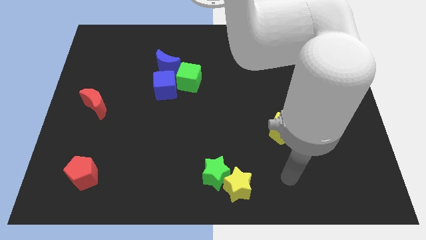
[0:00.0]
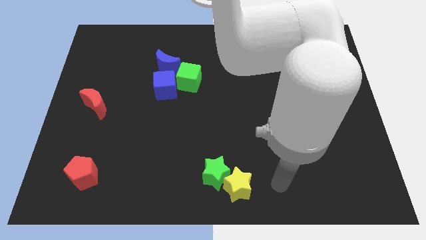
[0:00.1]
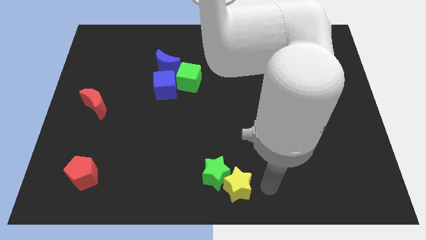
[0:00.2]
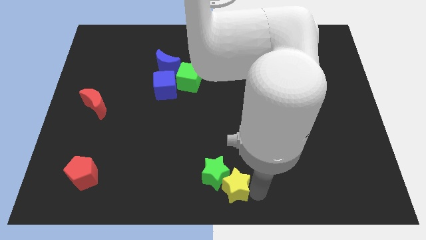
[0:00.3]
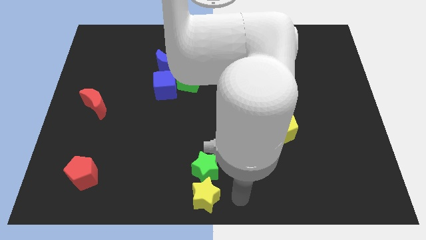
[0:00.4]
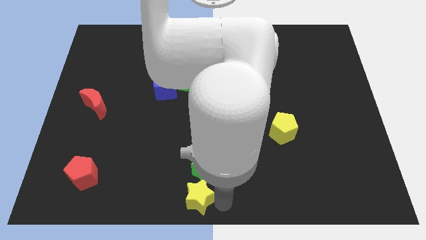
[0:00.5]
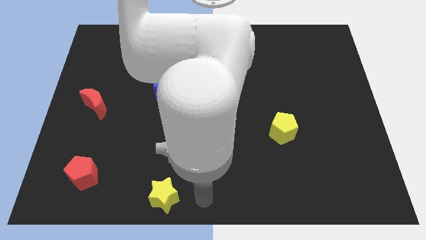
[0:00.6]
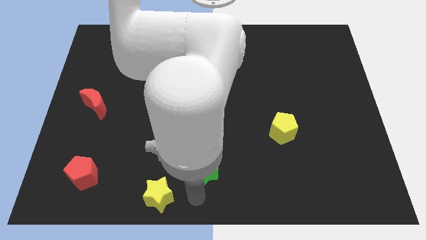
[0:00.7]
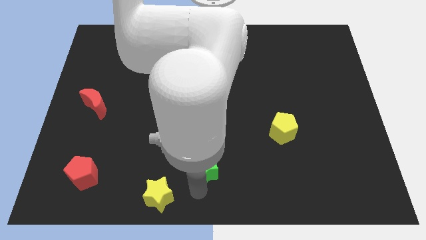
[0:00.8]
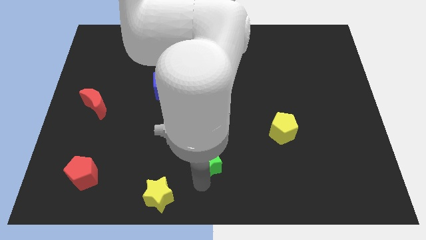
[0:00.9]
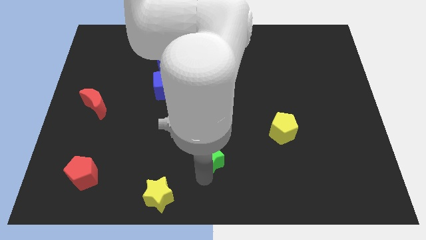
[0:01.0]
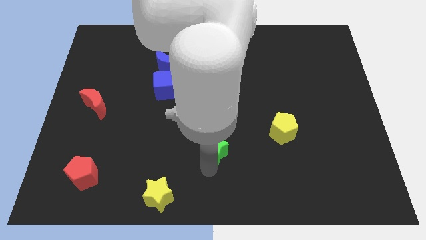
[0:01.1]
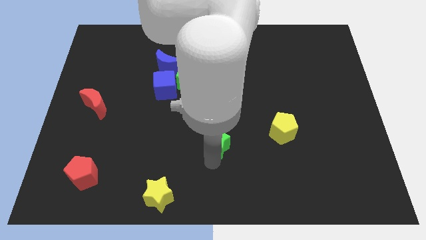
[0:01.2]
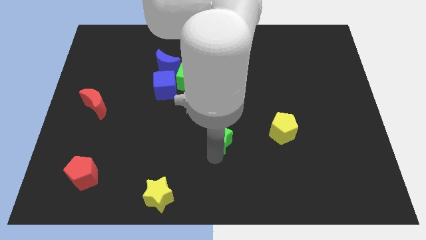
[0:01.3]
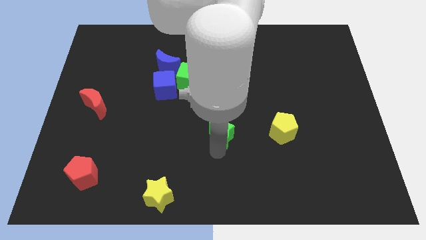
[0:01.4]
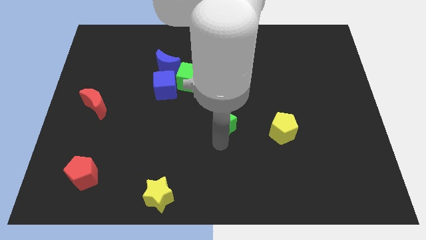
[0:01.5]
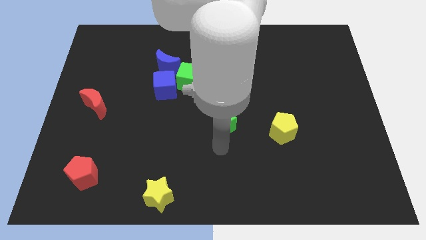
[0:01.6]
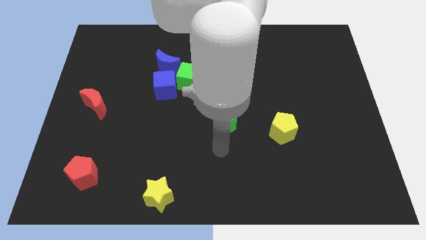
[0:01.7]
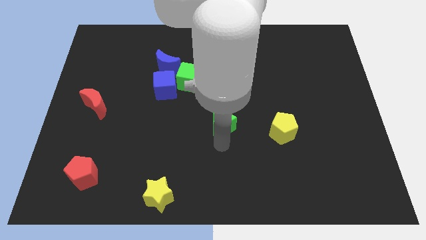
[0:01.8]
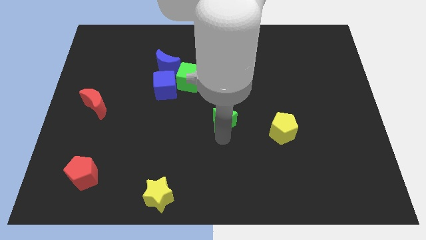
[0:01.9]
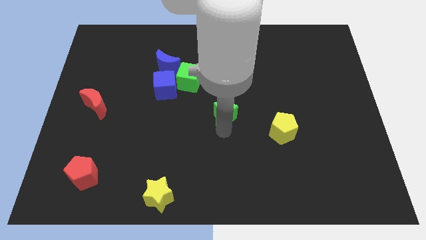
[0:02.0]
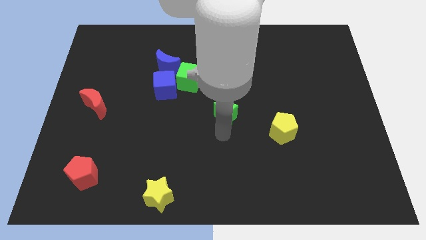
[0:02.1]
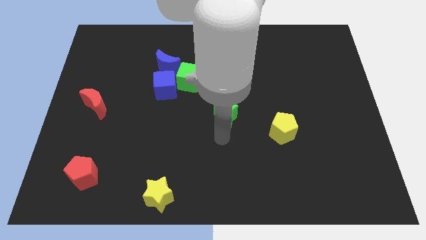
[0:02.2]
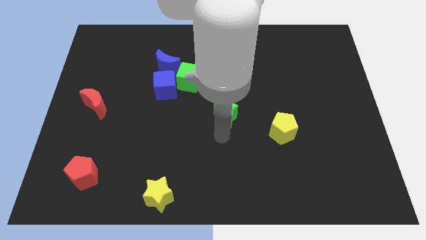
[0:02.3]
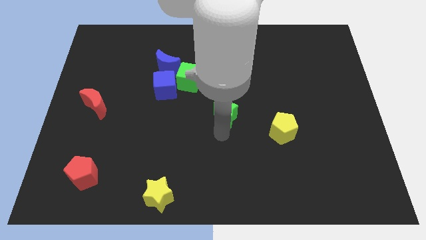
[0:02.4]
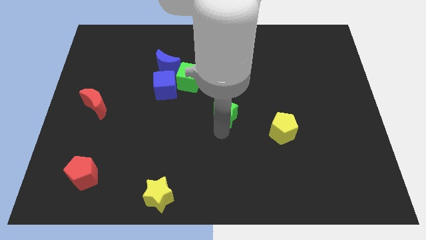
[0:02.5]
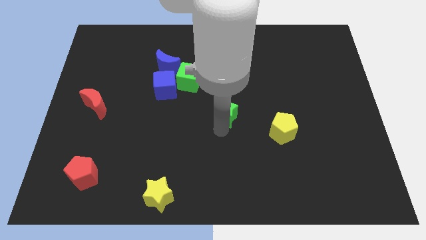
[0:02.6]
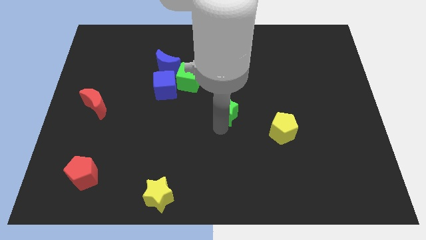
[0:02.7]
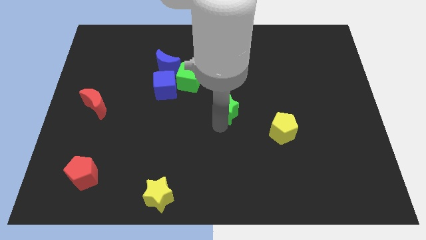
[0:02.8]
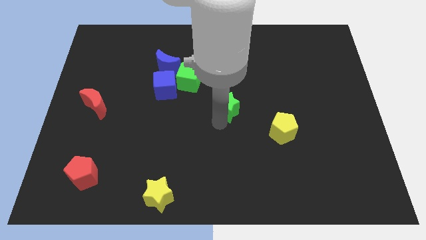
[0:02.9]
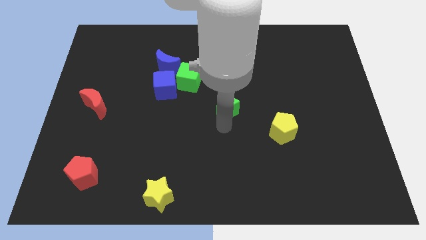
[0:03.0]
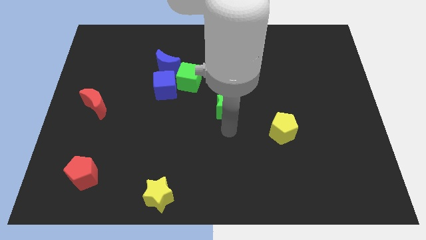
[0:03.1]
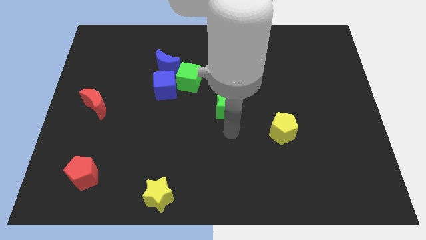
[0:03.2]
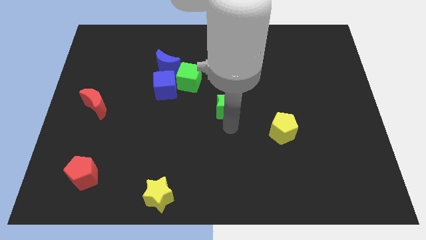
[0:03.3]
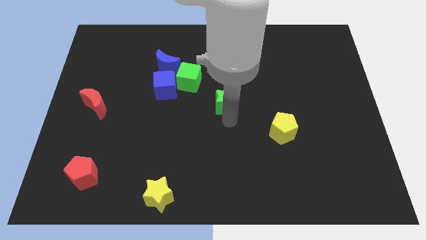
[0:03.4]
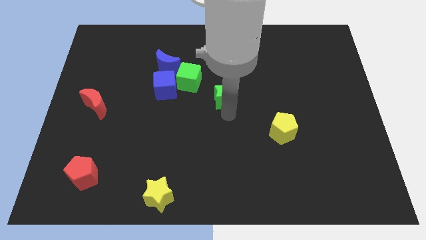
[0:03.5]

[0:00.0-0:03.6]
push the green star up

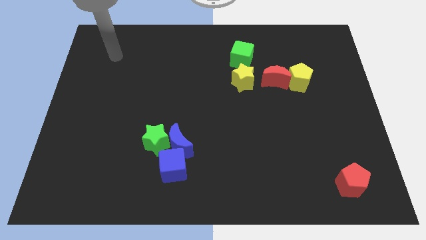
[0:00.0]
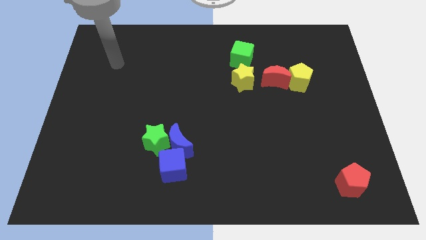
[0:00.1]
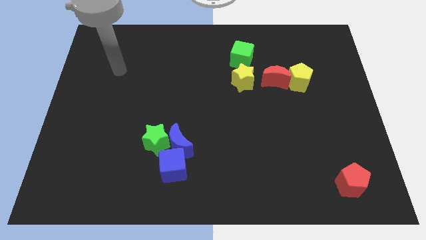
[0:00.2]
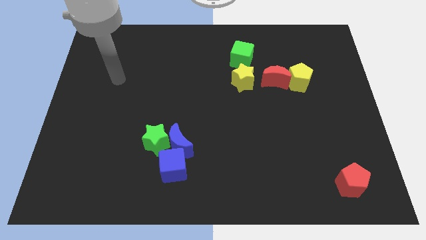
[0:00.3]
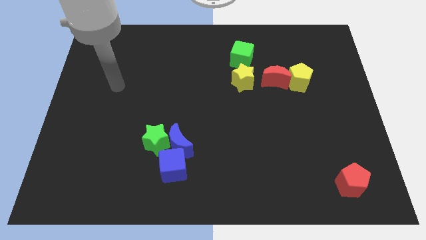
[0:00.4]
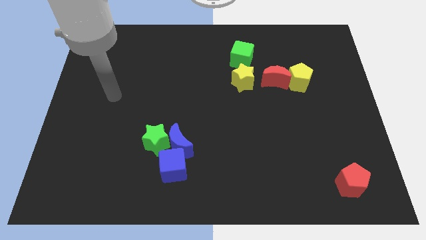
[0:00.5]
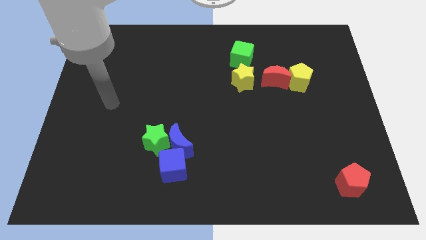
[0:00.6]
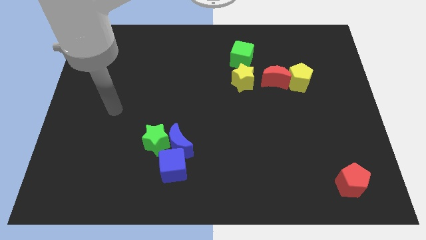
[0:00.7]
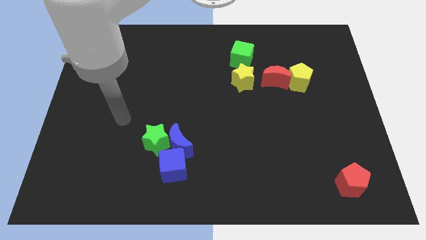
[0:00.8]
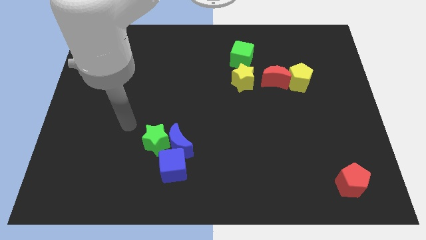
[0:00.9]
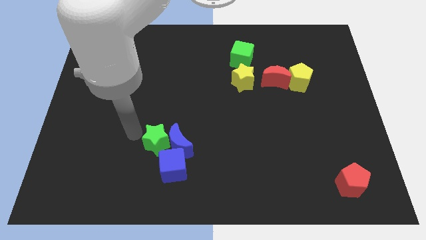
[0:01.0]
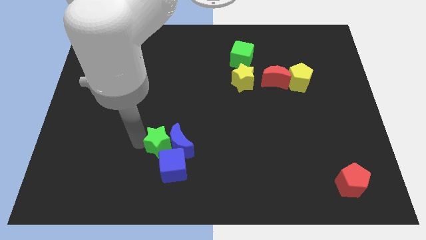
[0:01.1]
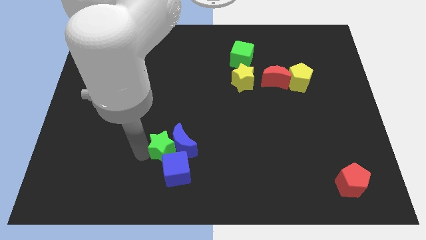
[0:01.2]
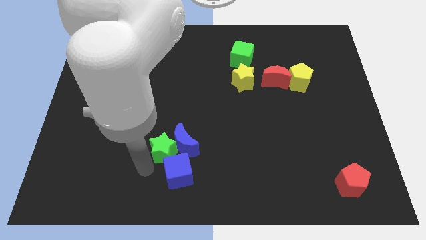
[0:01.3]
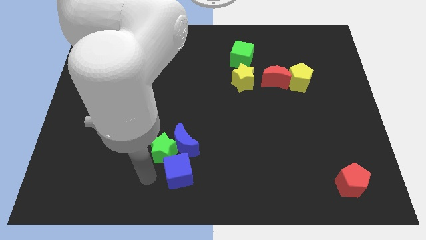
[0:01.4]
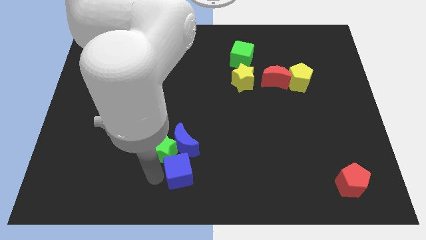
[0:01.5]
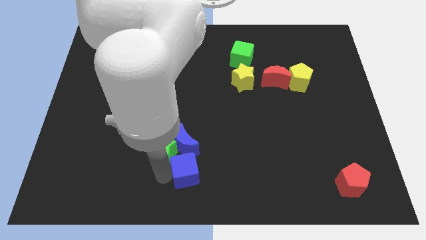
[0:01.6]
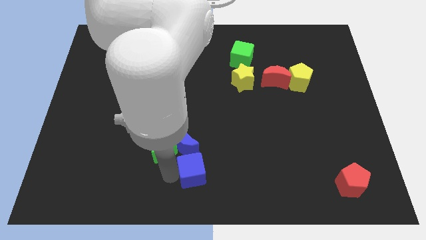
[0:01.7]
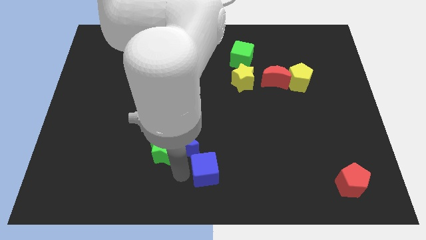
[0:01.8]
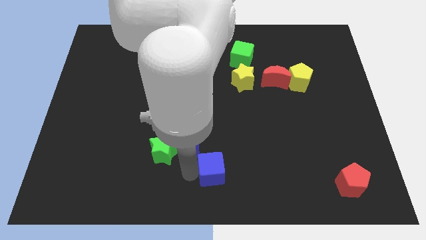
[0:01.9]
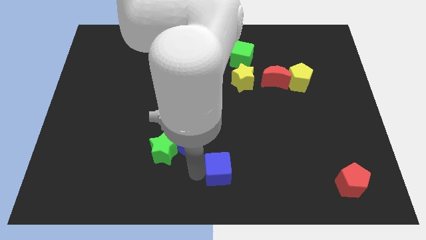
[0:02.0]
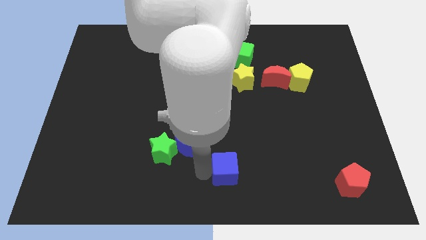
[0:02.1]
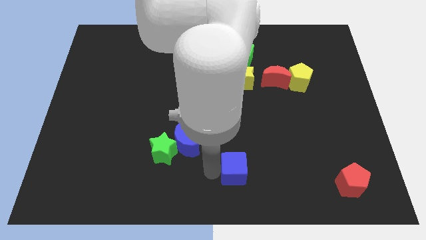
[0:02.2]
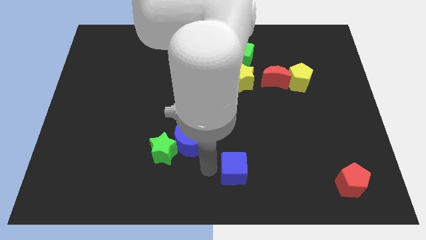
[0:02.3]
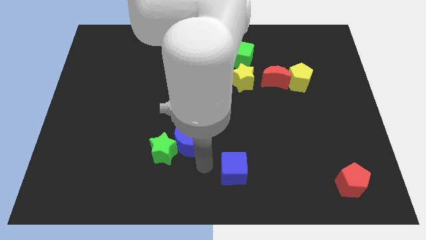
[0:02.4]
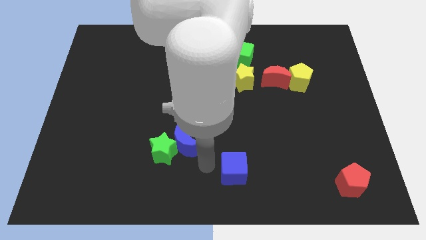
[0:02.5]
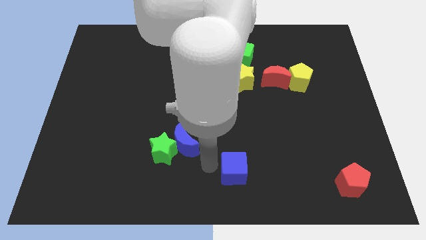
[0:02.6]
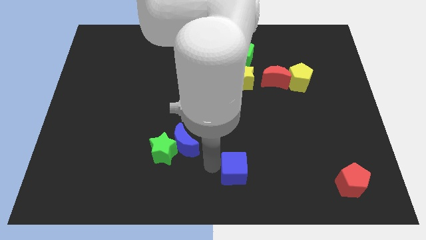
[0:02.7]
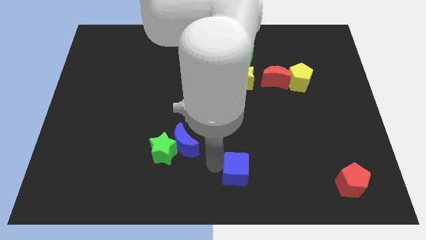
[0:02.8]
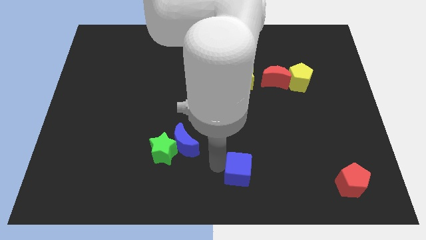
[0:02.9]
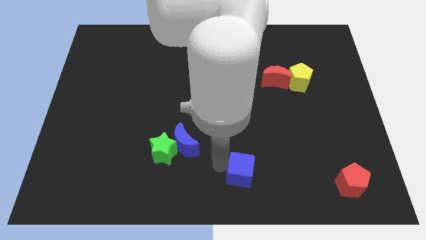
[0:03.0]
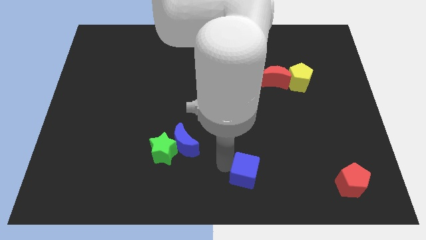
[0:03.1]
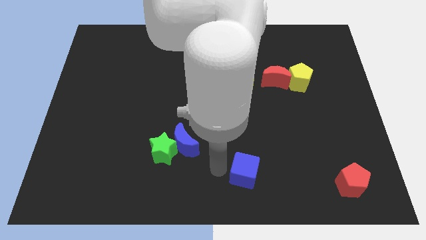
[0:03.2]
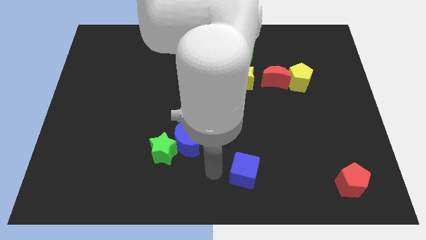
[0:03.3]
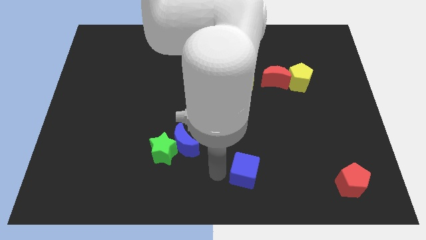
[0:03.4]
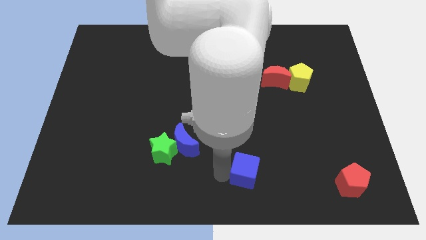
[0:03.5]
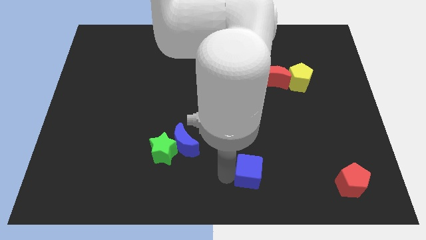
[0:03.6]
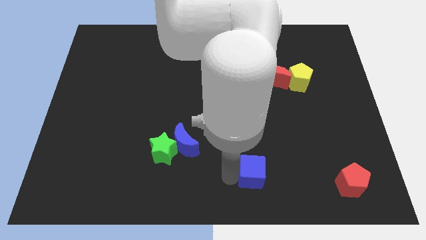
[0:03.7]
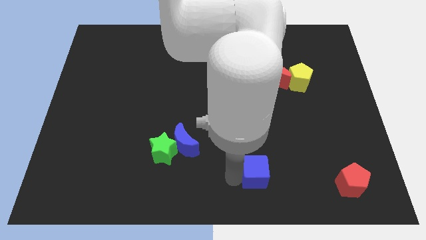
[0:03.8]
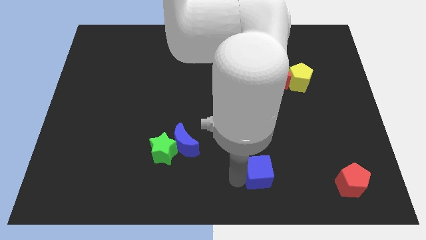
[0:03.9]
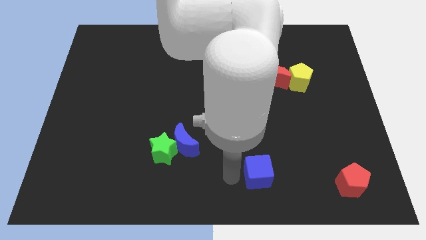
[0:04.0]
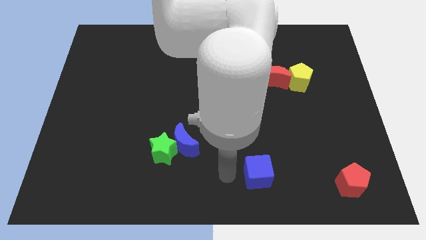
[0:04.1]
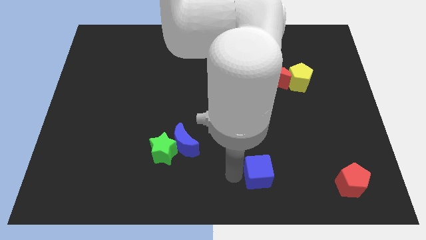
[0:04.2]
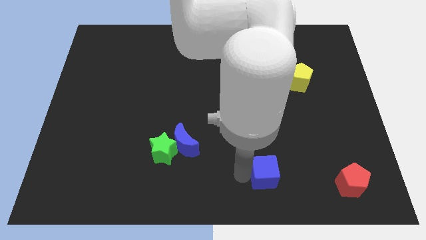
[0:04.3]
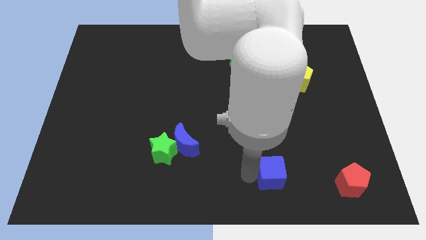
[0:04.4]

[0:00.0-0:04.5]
push the blue cube right
